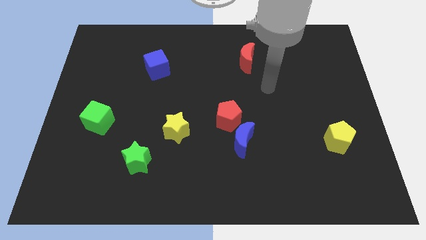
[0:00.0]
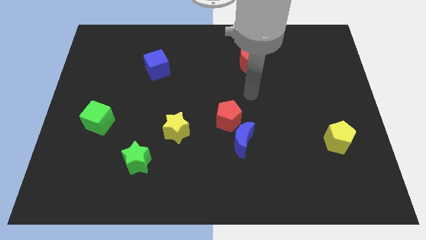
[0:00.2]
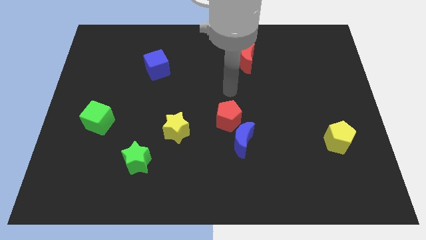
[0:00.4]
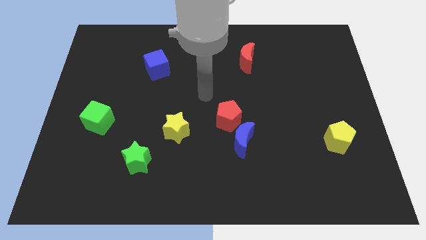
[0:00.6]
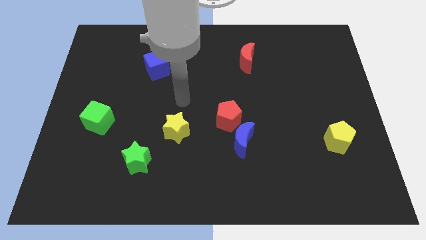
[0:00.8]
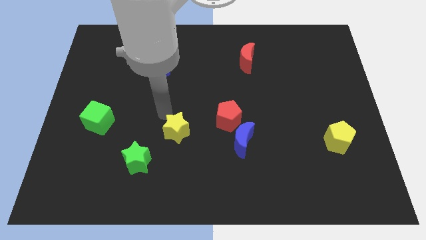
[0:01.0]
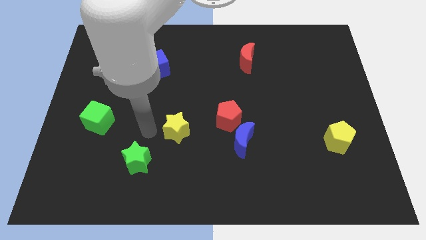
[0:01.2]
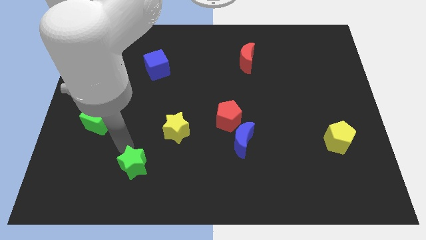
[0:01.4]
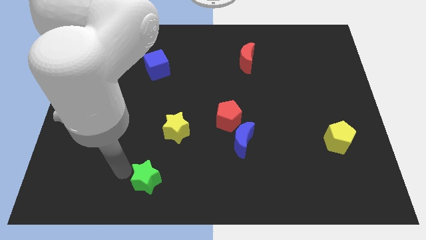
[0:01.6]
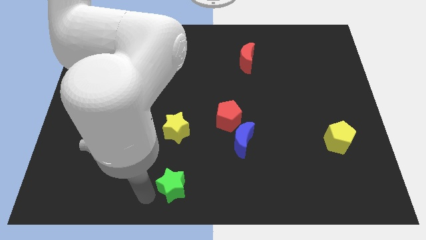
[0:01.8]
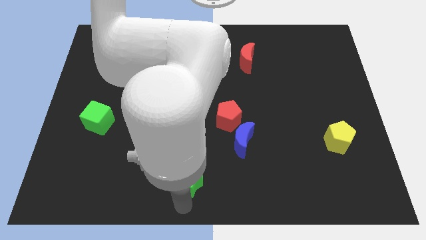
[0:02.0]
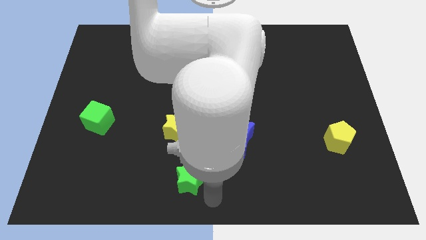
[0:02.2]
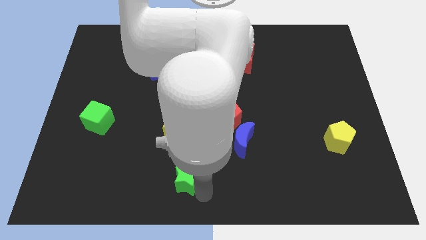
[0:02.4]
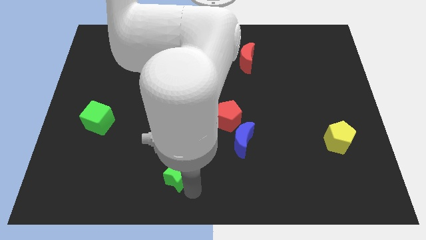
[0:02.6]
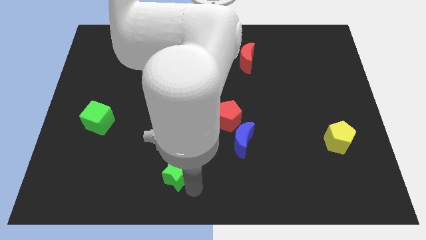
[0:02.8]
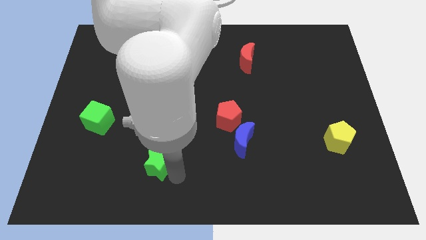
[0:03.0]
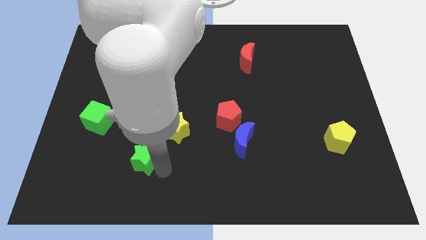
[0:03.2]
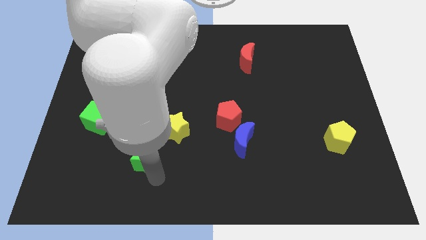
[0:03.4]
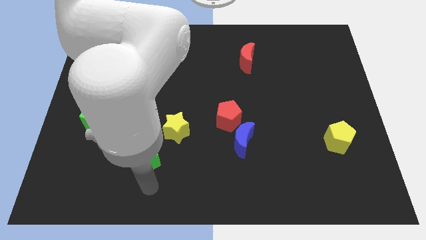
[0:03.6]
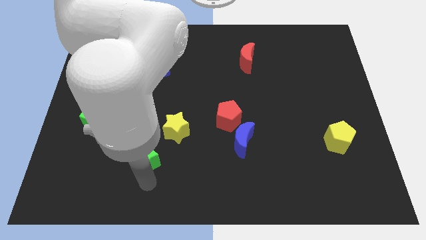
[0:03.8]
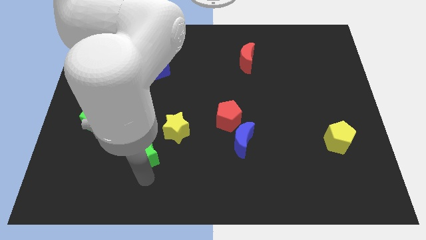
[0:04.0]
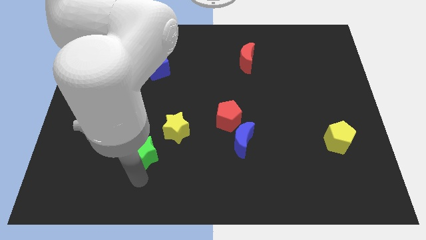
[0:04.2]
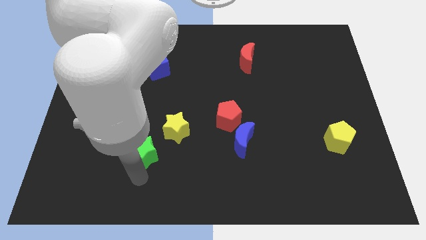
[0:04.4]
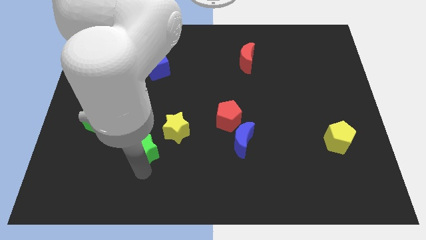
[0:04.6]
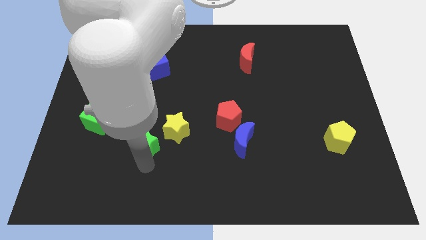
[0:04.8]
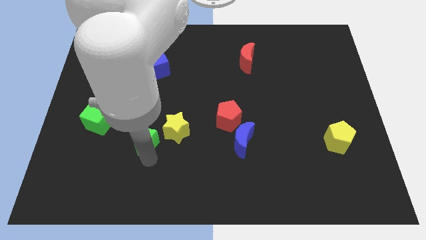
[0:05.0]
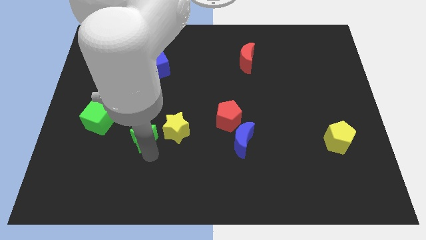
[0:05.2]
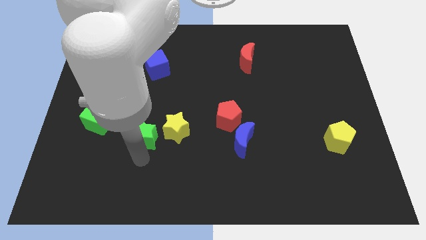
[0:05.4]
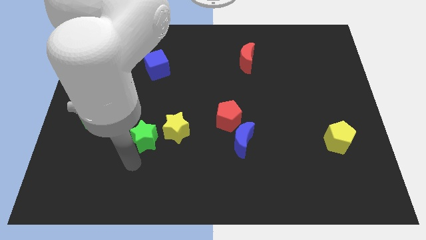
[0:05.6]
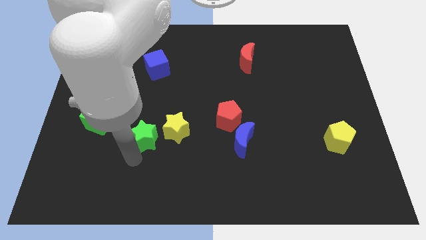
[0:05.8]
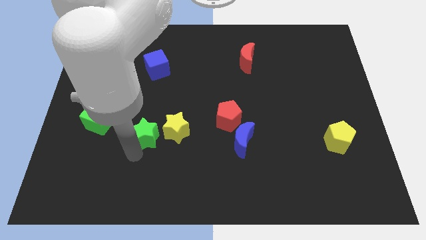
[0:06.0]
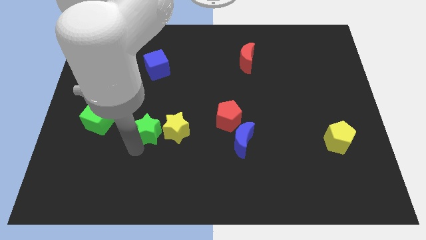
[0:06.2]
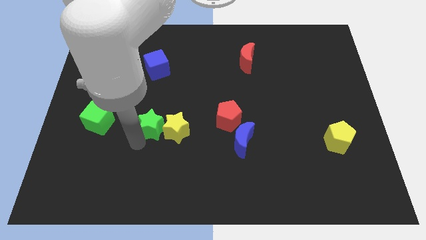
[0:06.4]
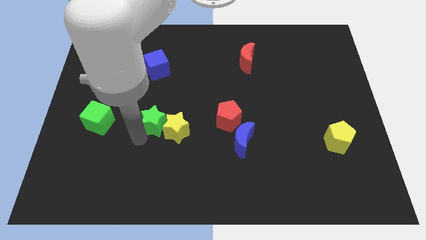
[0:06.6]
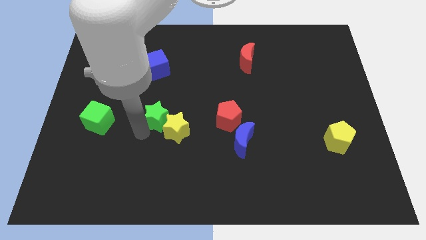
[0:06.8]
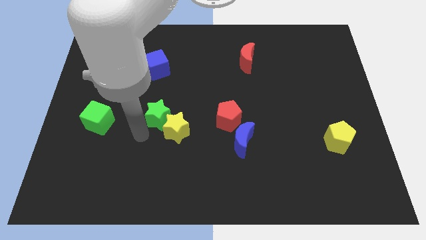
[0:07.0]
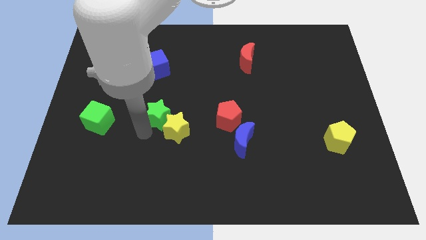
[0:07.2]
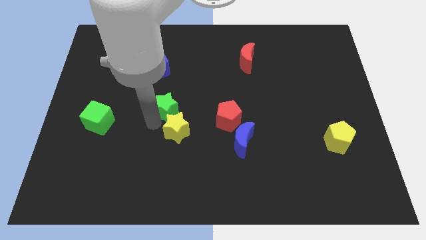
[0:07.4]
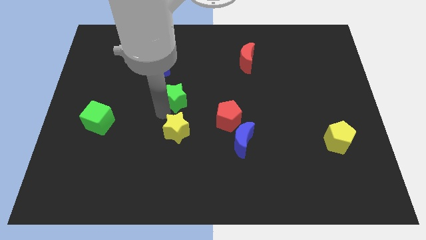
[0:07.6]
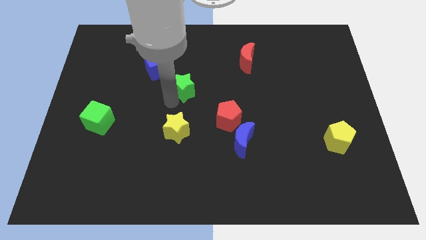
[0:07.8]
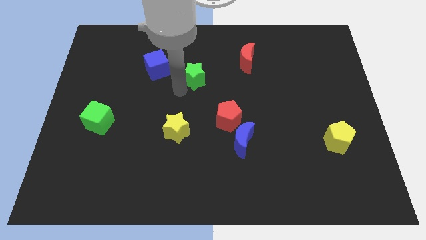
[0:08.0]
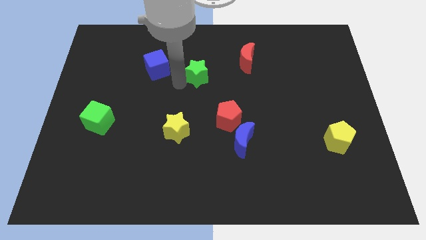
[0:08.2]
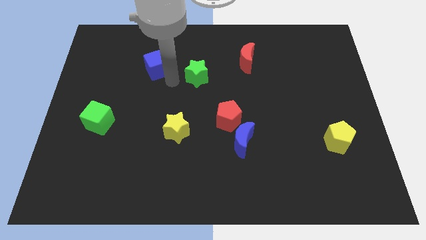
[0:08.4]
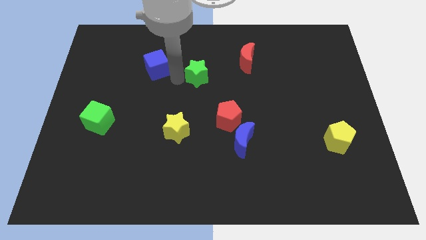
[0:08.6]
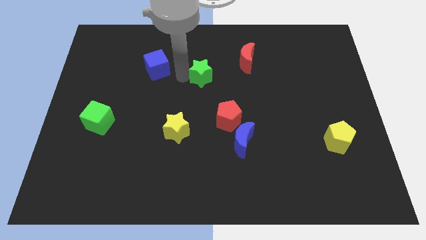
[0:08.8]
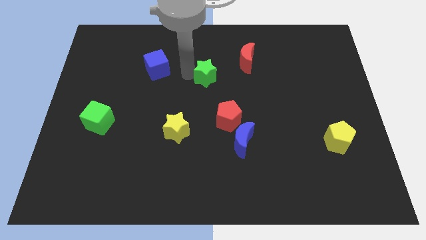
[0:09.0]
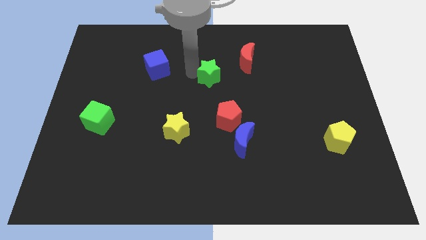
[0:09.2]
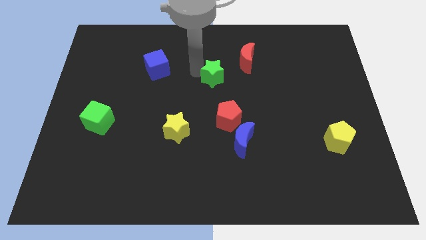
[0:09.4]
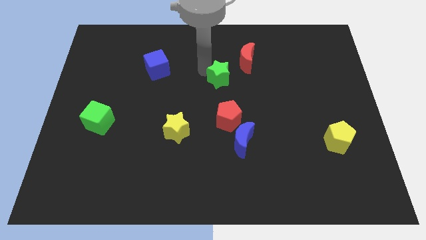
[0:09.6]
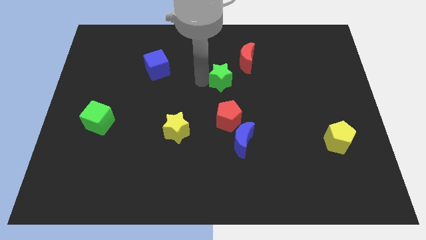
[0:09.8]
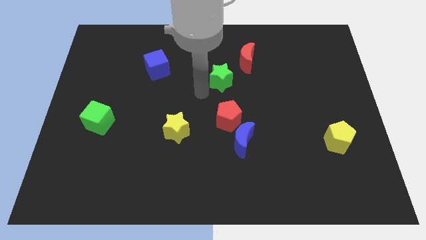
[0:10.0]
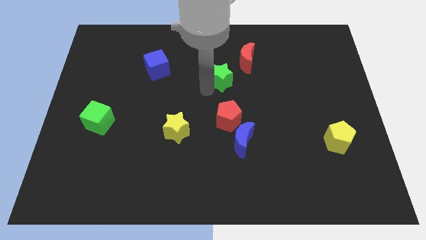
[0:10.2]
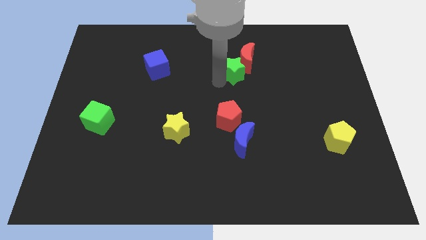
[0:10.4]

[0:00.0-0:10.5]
put the green star next to the red moon

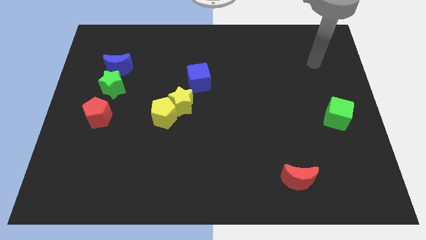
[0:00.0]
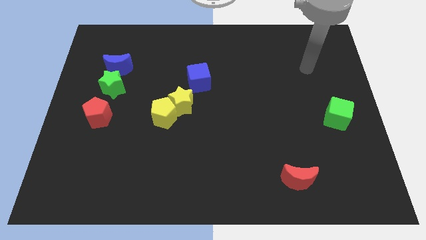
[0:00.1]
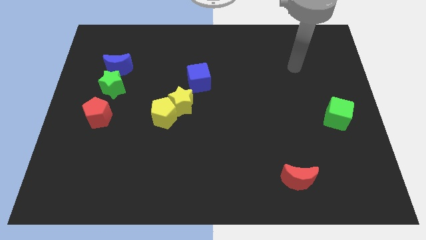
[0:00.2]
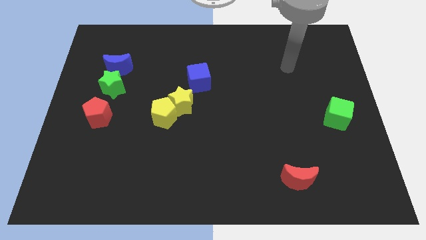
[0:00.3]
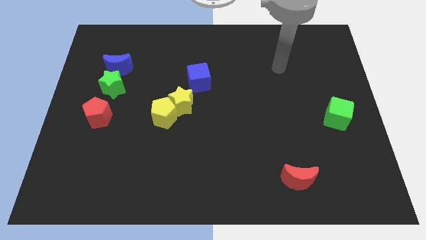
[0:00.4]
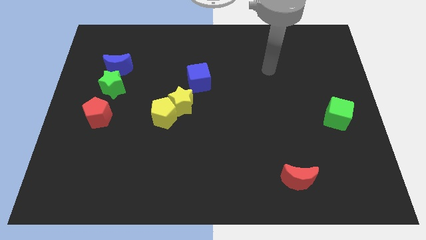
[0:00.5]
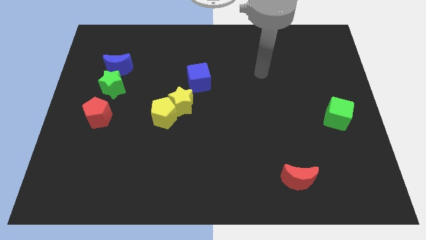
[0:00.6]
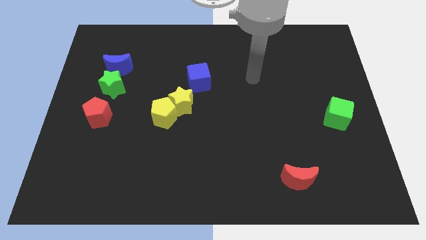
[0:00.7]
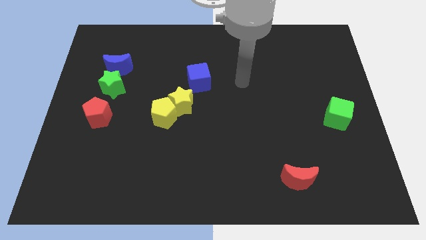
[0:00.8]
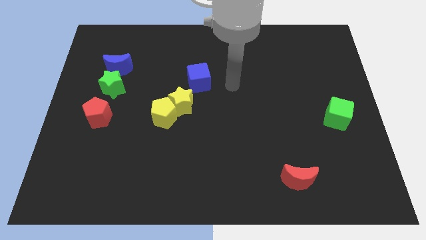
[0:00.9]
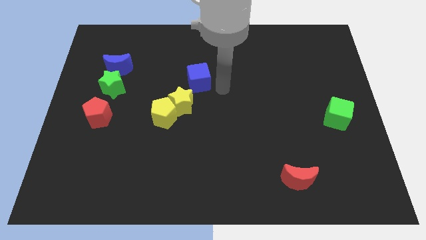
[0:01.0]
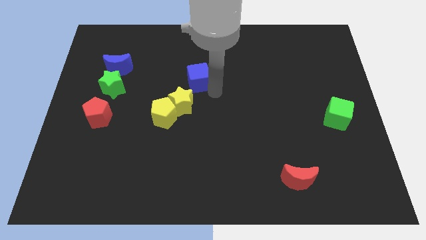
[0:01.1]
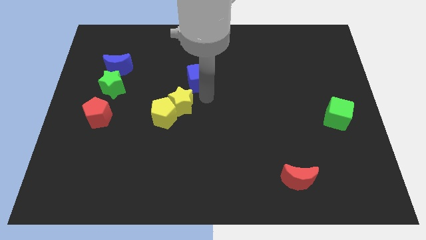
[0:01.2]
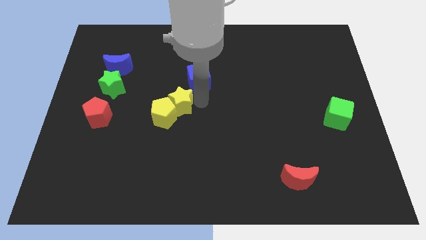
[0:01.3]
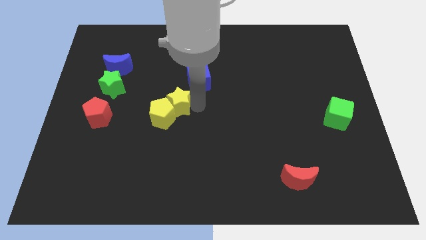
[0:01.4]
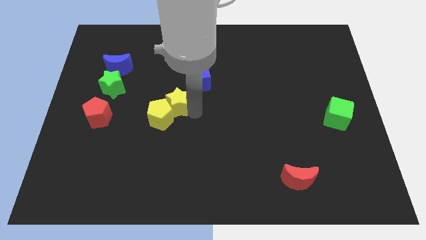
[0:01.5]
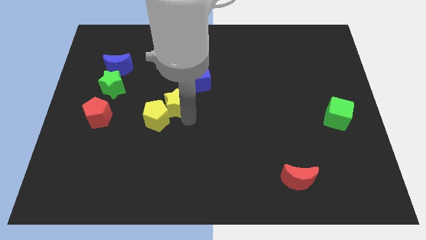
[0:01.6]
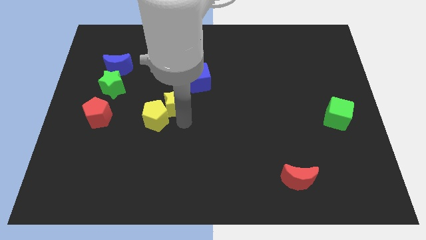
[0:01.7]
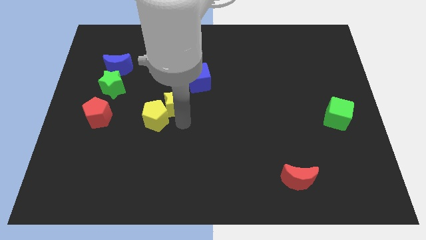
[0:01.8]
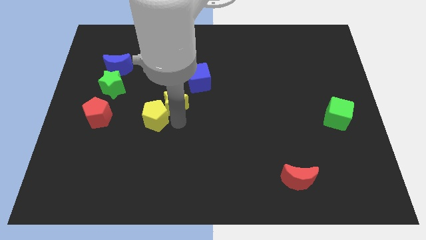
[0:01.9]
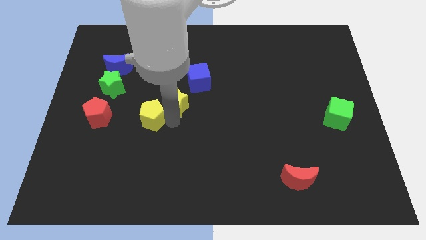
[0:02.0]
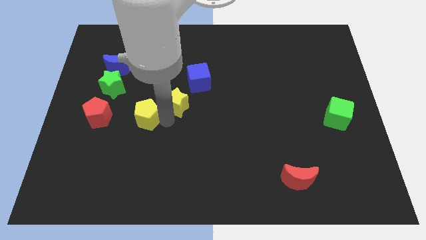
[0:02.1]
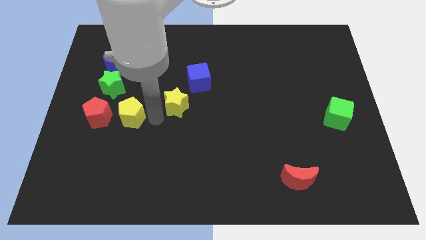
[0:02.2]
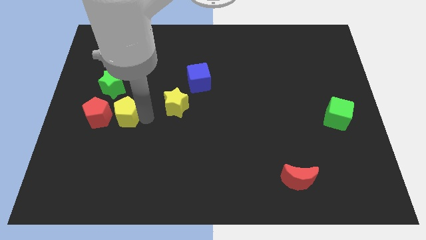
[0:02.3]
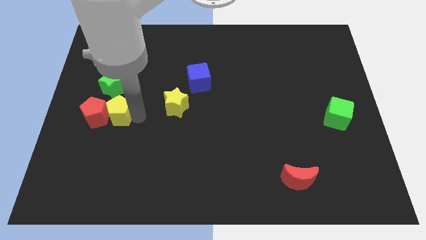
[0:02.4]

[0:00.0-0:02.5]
move the yellow pentagon close to the red pentagon
